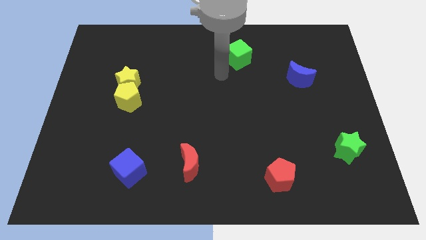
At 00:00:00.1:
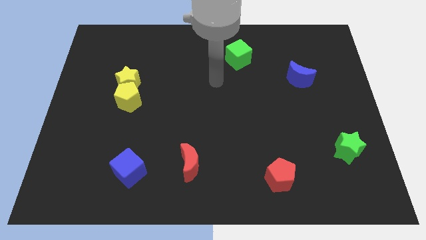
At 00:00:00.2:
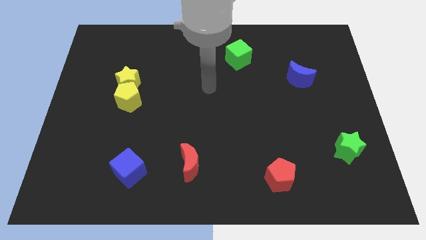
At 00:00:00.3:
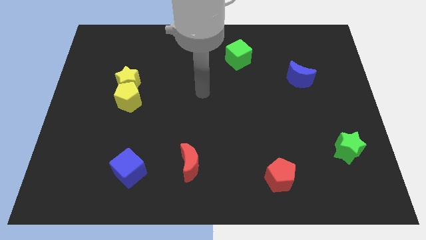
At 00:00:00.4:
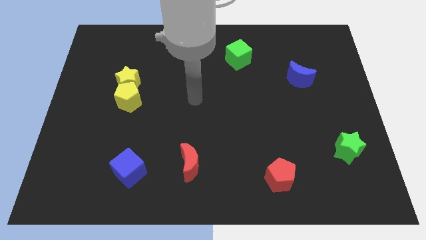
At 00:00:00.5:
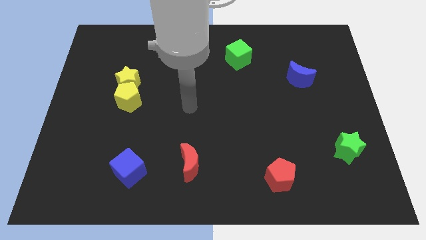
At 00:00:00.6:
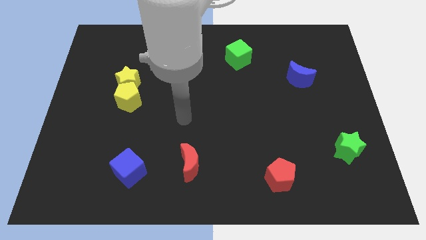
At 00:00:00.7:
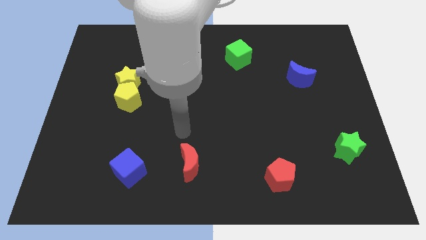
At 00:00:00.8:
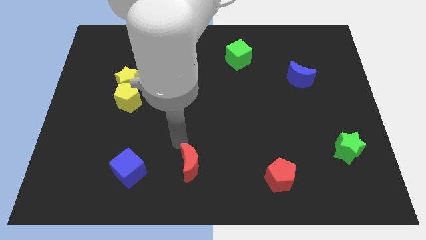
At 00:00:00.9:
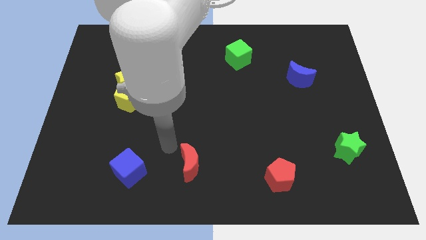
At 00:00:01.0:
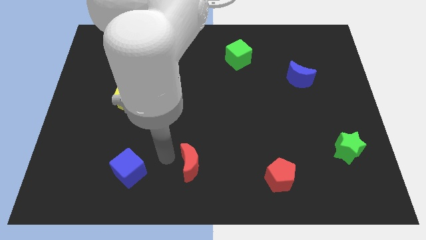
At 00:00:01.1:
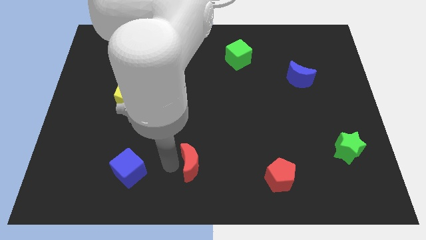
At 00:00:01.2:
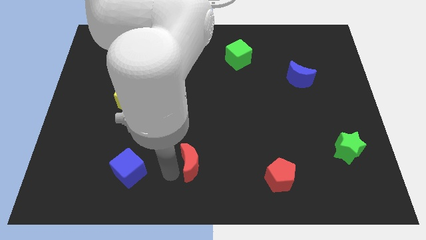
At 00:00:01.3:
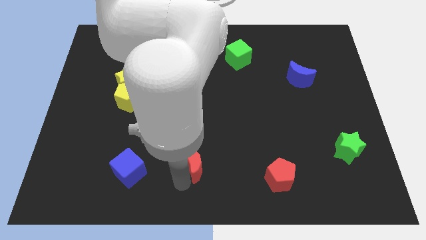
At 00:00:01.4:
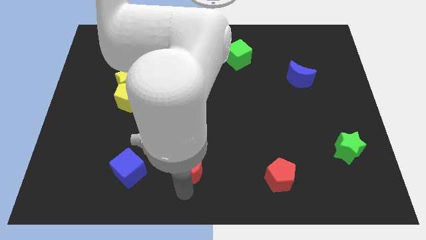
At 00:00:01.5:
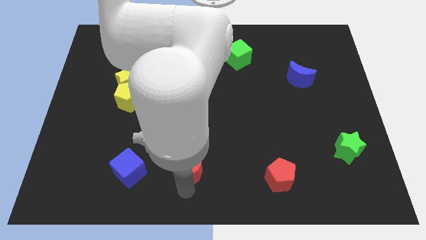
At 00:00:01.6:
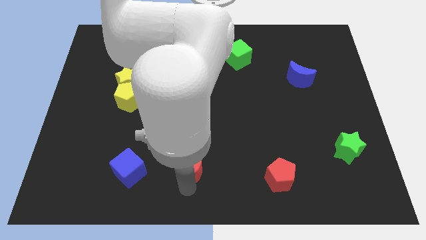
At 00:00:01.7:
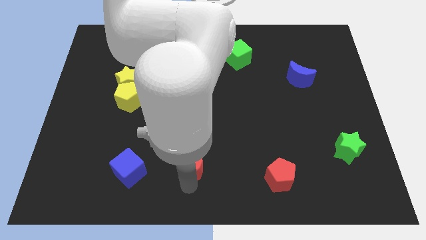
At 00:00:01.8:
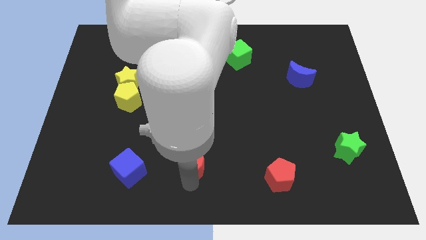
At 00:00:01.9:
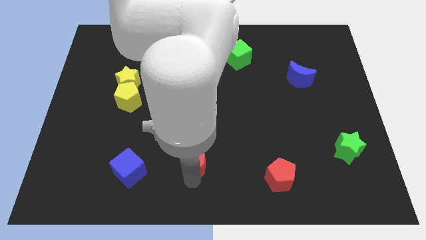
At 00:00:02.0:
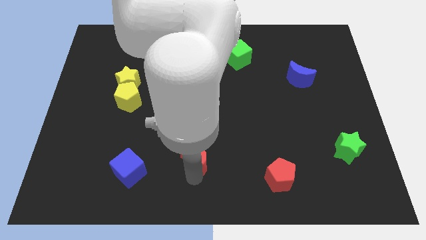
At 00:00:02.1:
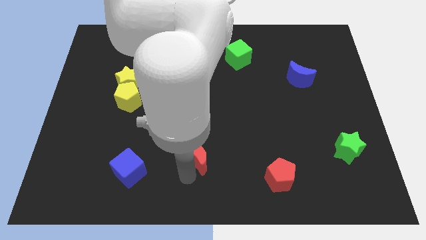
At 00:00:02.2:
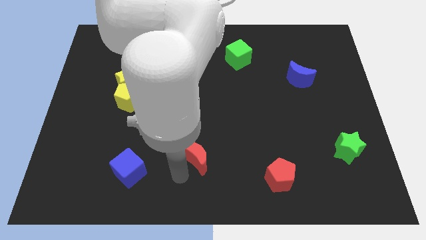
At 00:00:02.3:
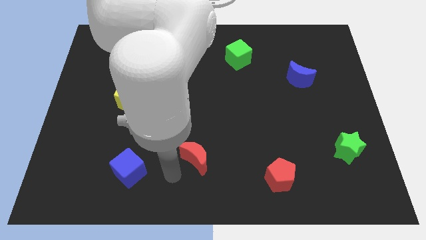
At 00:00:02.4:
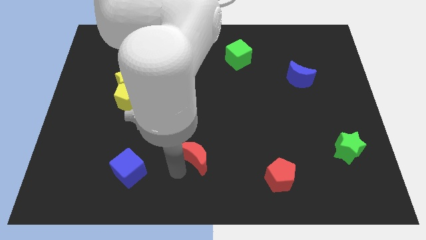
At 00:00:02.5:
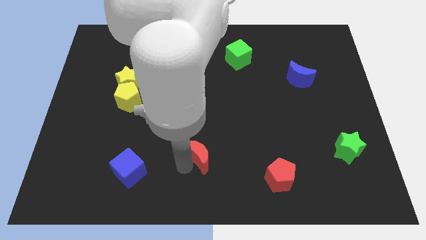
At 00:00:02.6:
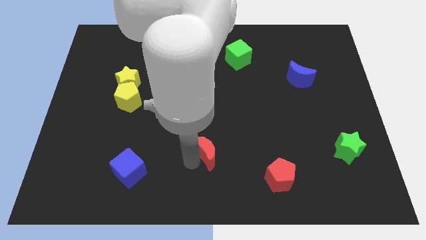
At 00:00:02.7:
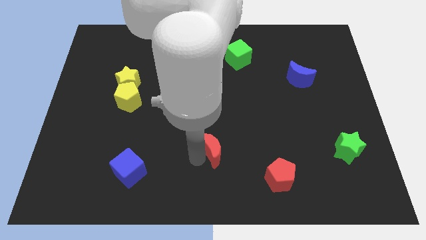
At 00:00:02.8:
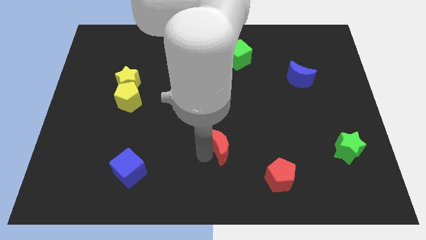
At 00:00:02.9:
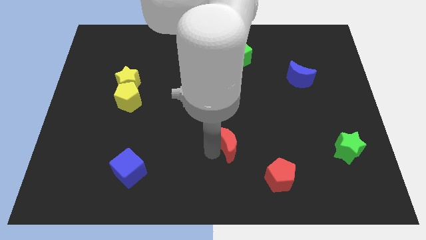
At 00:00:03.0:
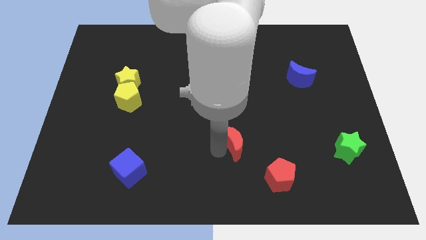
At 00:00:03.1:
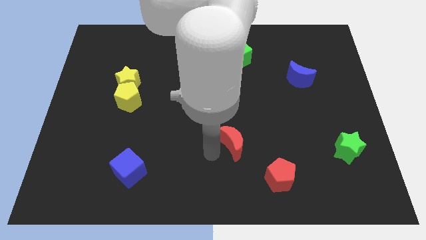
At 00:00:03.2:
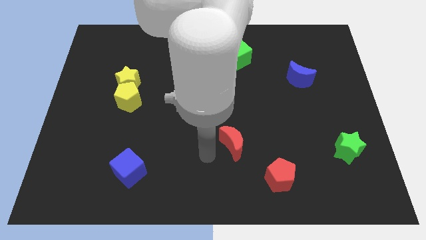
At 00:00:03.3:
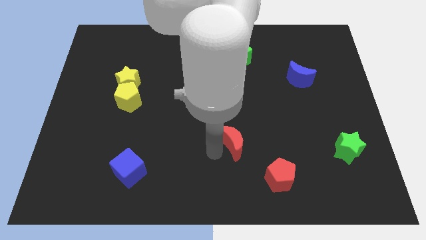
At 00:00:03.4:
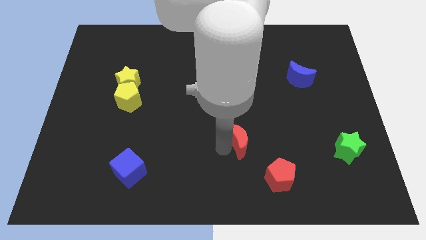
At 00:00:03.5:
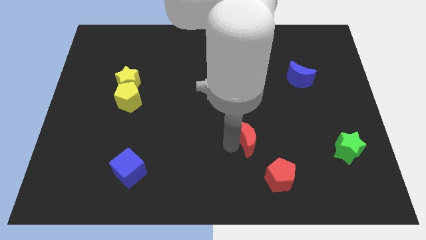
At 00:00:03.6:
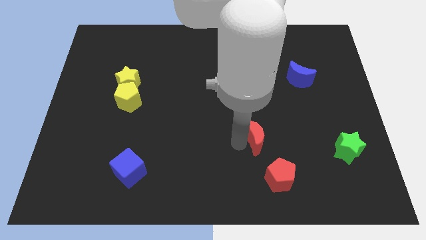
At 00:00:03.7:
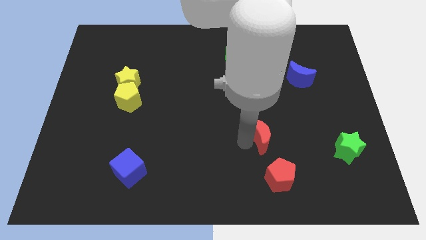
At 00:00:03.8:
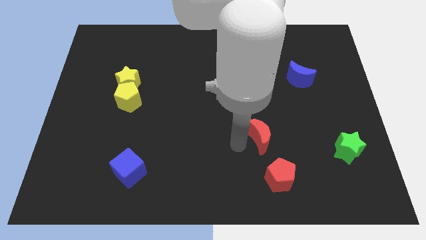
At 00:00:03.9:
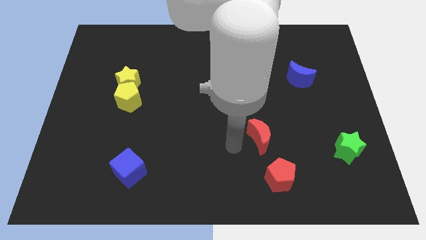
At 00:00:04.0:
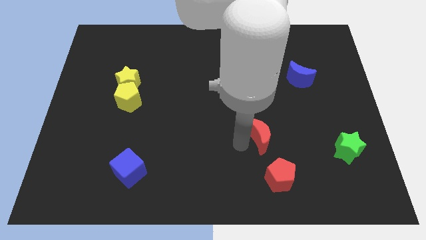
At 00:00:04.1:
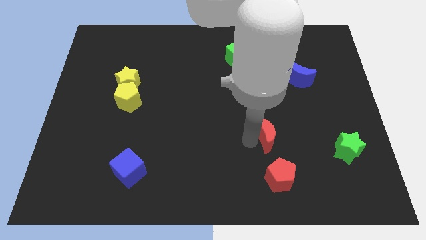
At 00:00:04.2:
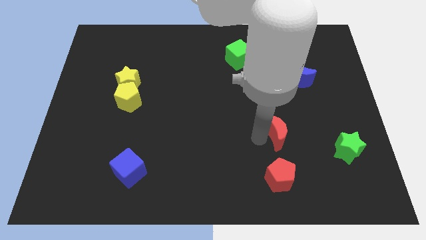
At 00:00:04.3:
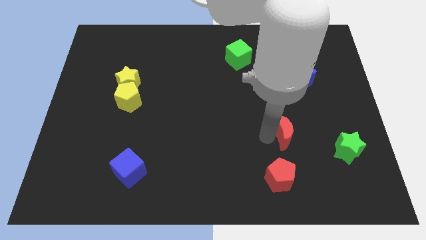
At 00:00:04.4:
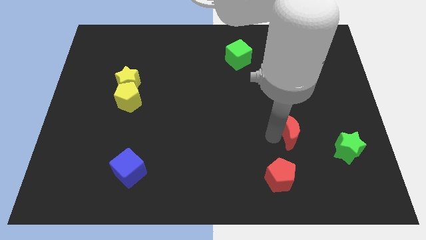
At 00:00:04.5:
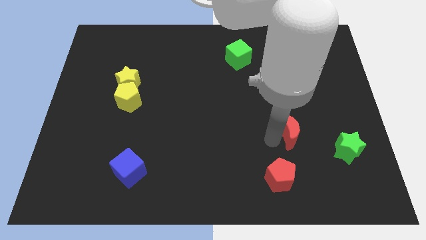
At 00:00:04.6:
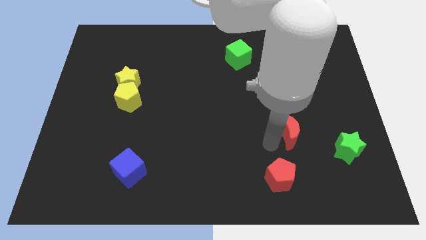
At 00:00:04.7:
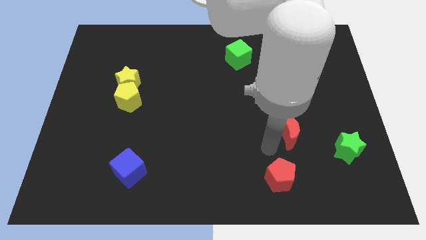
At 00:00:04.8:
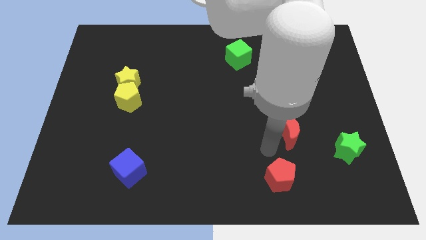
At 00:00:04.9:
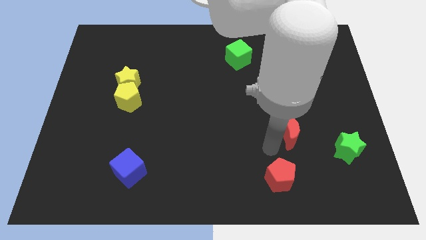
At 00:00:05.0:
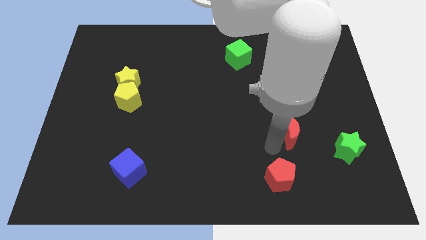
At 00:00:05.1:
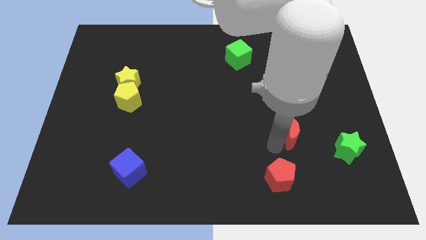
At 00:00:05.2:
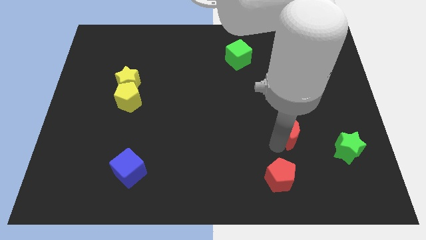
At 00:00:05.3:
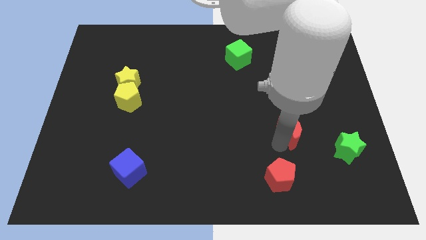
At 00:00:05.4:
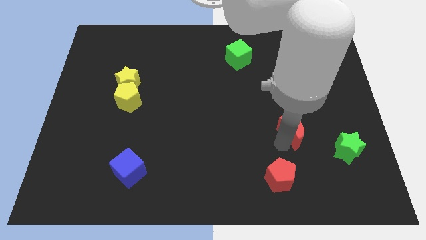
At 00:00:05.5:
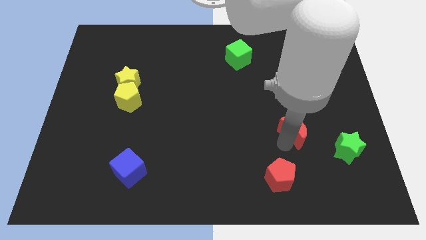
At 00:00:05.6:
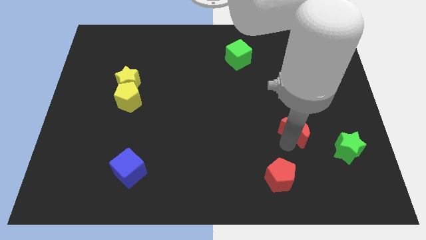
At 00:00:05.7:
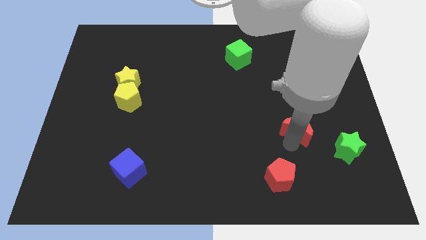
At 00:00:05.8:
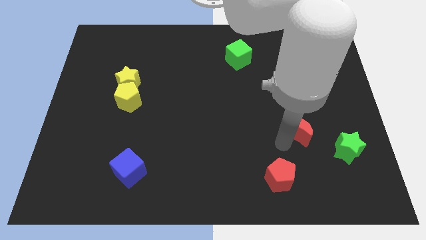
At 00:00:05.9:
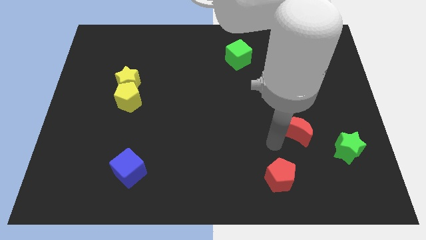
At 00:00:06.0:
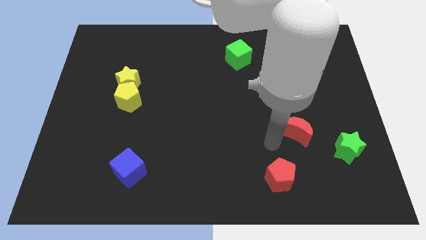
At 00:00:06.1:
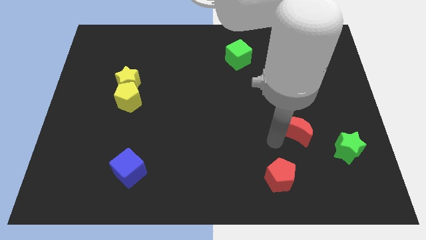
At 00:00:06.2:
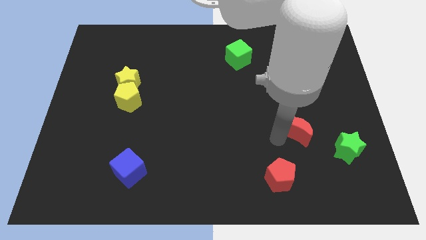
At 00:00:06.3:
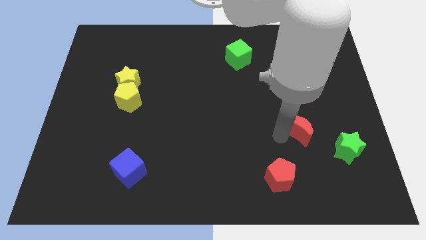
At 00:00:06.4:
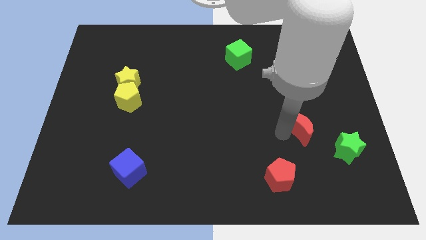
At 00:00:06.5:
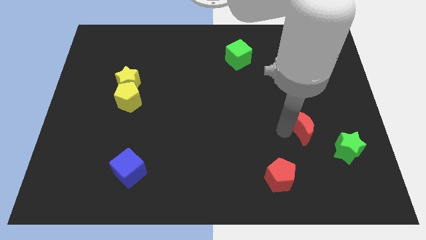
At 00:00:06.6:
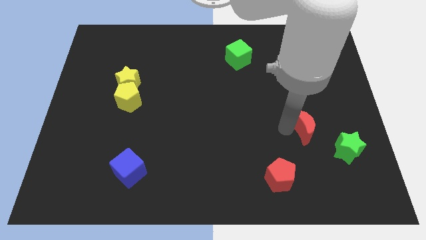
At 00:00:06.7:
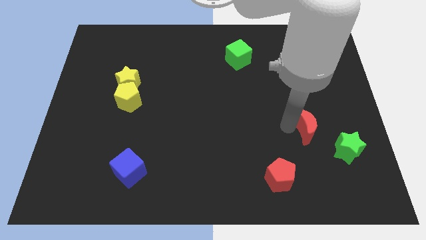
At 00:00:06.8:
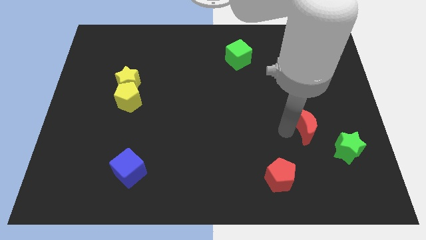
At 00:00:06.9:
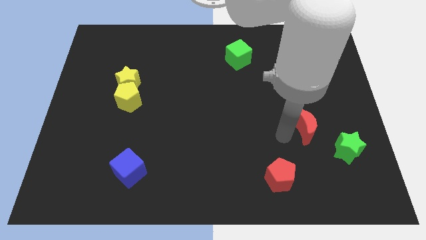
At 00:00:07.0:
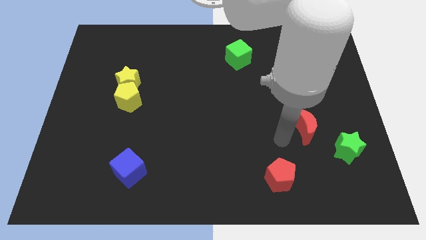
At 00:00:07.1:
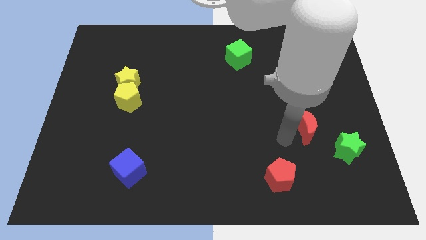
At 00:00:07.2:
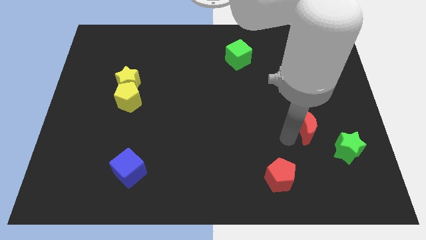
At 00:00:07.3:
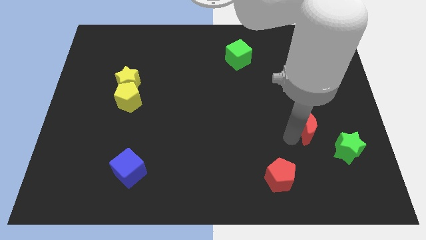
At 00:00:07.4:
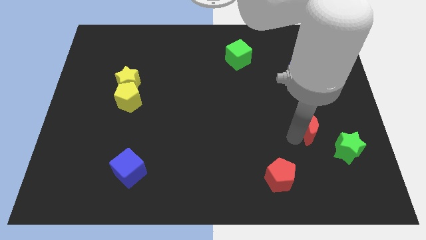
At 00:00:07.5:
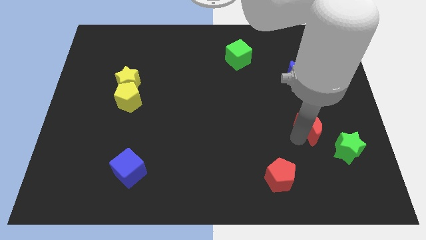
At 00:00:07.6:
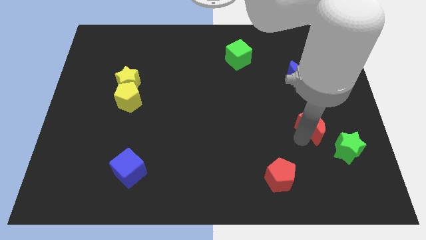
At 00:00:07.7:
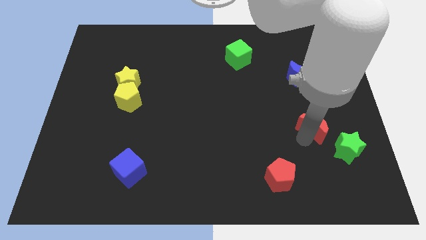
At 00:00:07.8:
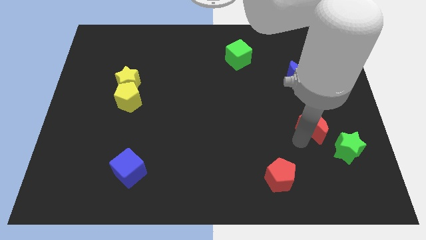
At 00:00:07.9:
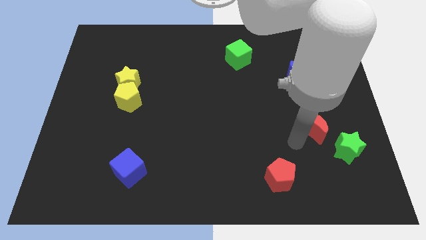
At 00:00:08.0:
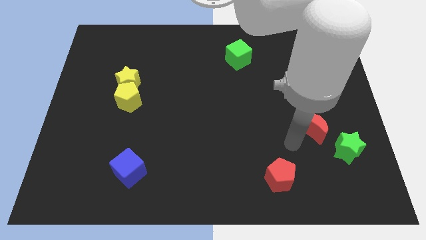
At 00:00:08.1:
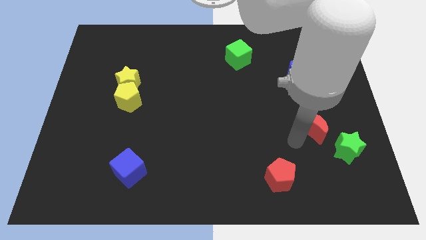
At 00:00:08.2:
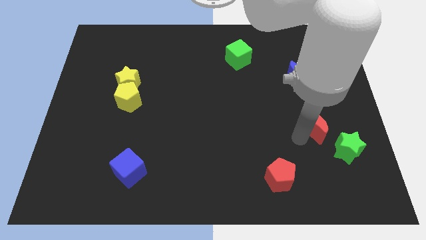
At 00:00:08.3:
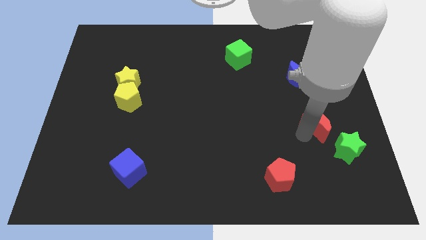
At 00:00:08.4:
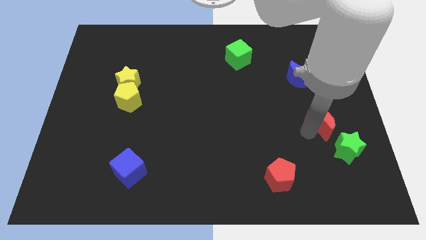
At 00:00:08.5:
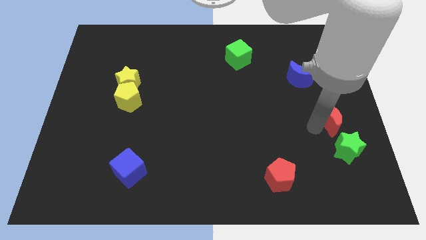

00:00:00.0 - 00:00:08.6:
move the red moon to the right side of the board
